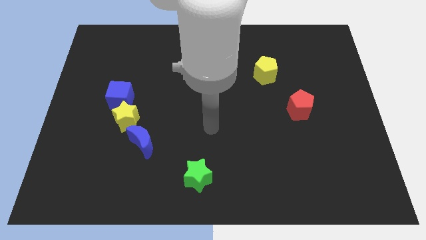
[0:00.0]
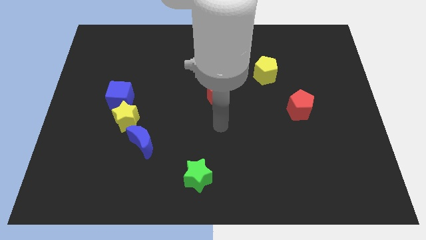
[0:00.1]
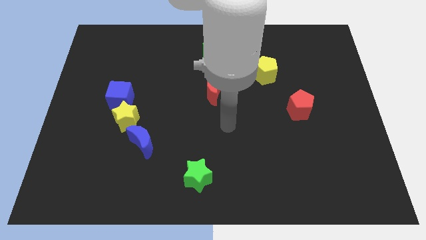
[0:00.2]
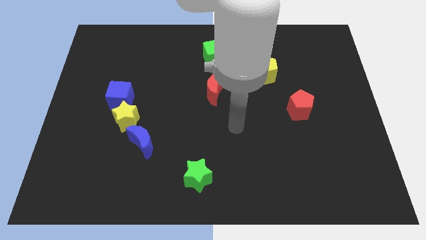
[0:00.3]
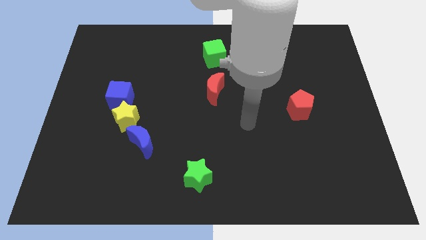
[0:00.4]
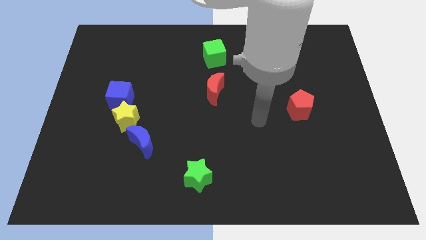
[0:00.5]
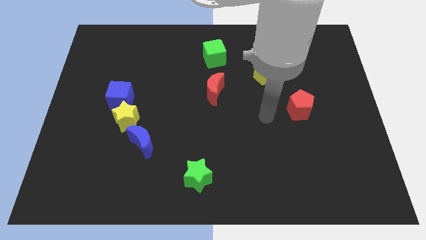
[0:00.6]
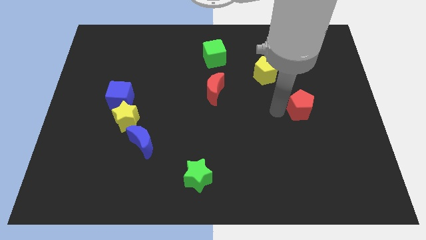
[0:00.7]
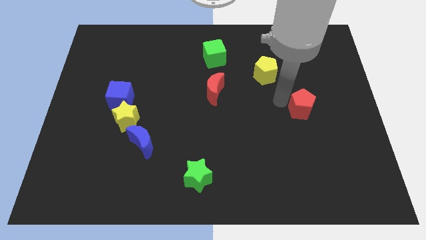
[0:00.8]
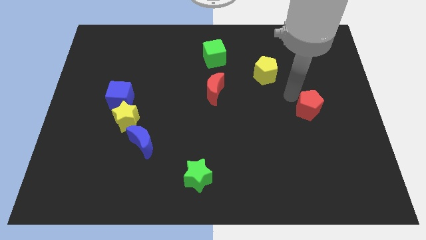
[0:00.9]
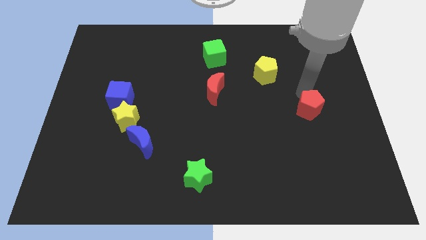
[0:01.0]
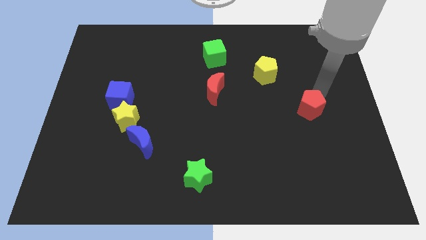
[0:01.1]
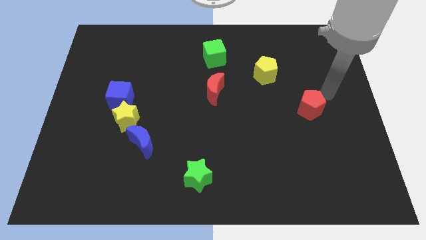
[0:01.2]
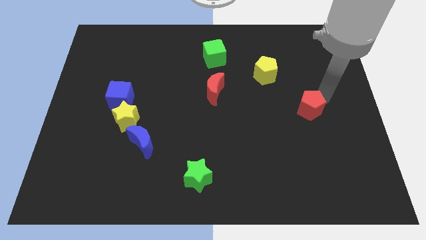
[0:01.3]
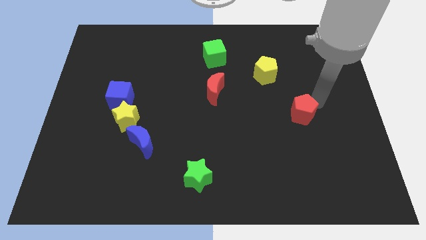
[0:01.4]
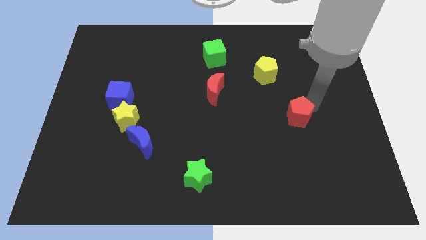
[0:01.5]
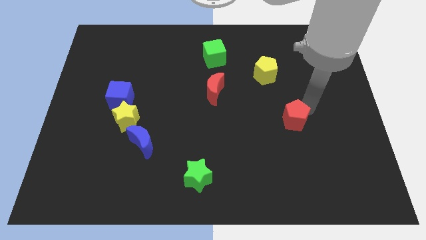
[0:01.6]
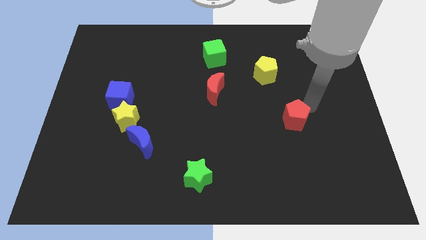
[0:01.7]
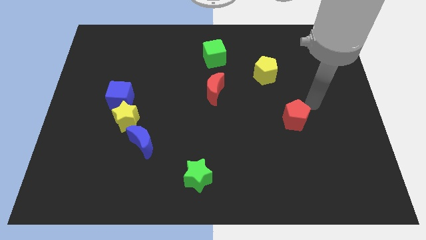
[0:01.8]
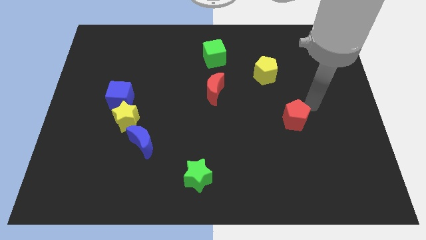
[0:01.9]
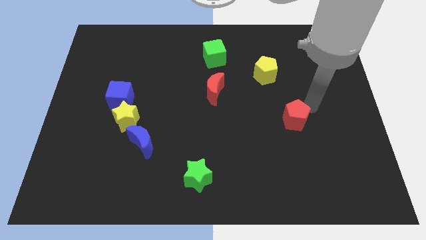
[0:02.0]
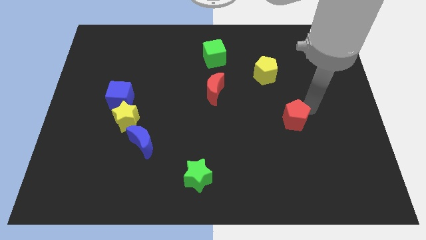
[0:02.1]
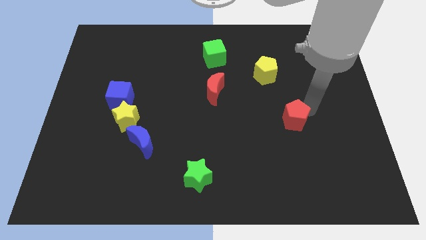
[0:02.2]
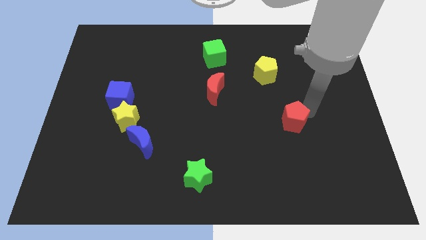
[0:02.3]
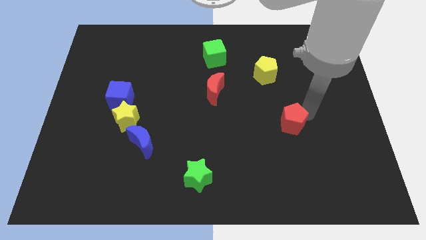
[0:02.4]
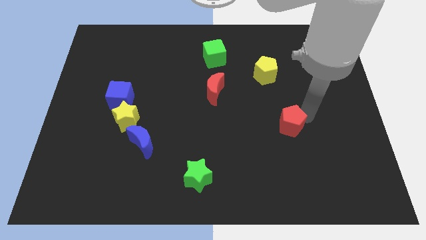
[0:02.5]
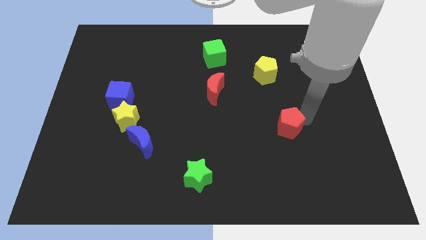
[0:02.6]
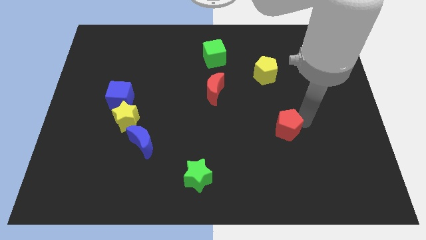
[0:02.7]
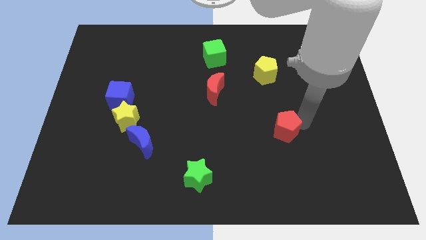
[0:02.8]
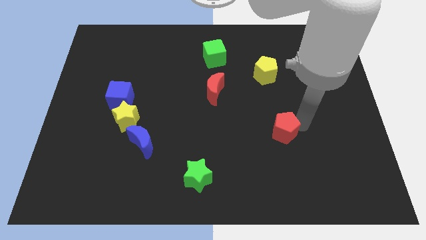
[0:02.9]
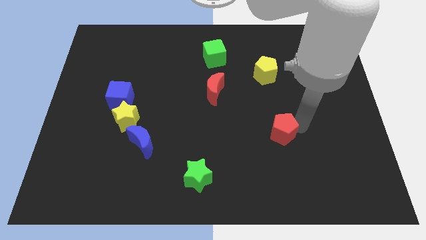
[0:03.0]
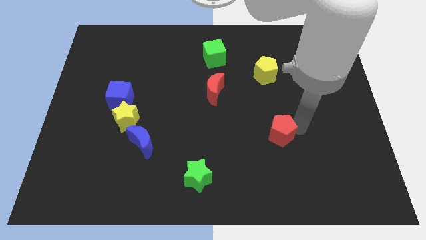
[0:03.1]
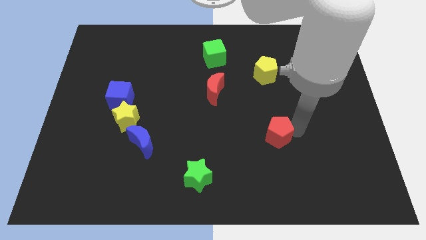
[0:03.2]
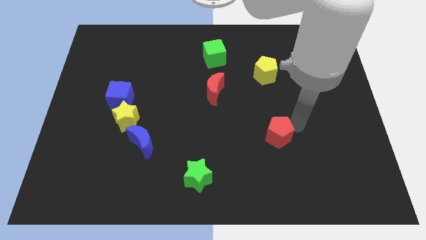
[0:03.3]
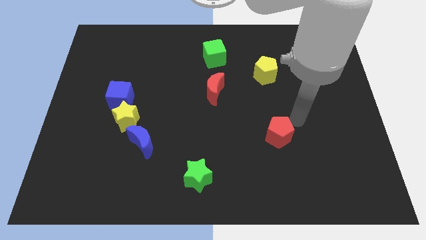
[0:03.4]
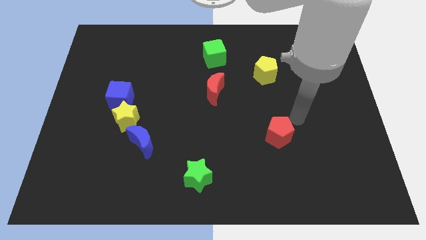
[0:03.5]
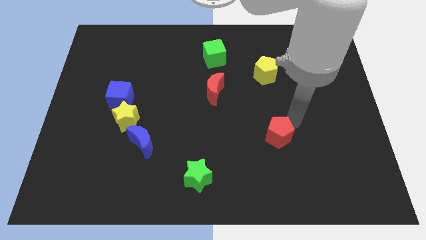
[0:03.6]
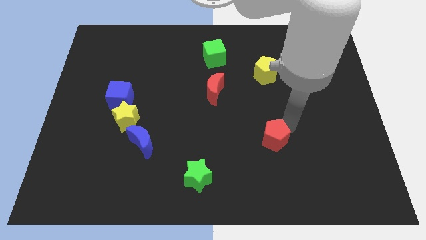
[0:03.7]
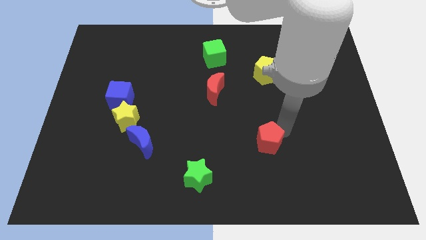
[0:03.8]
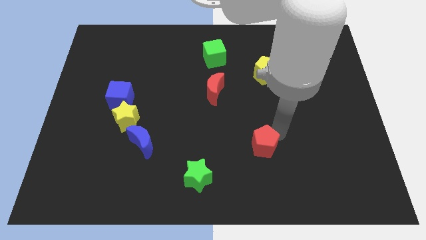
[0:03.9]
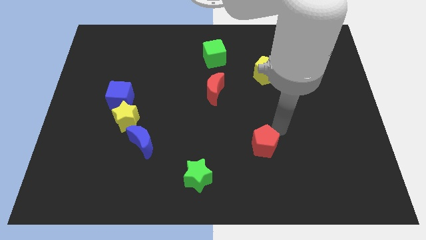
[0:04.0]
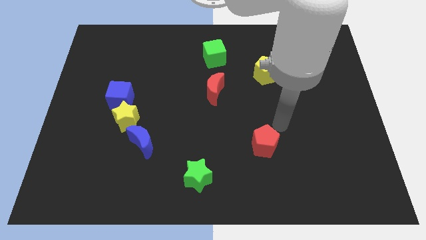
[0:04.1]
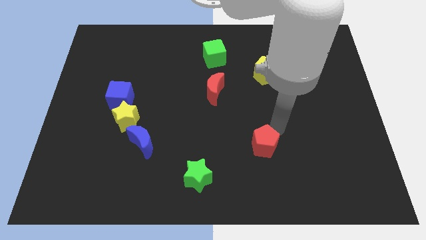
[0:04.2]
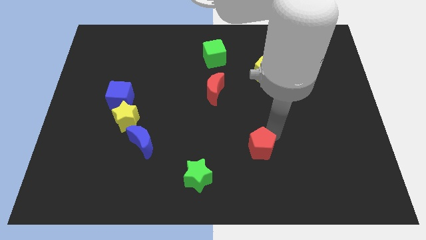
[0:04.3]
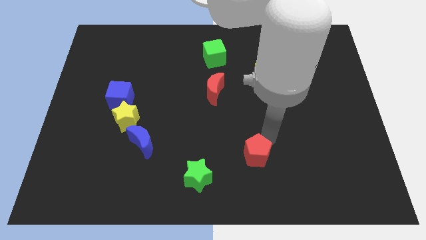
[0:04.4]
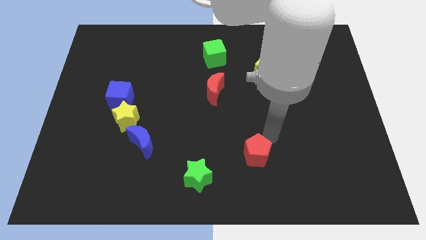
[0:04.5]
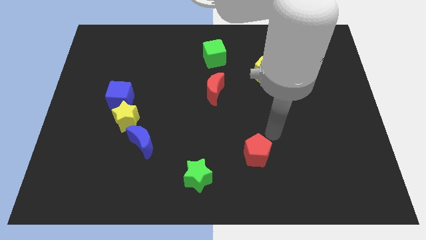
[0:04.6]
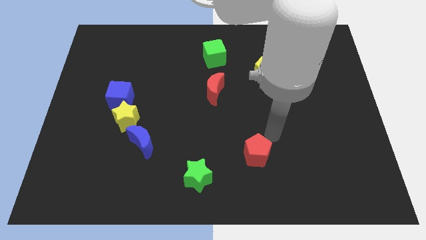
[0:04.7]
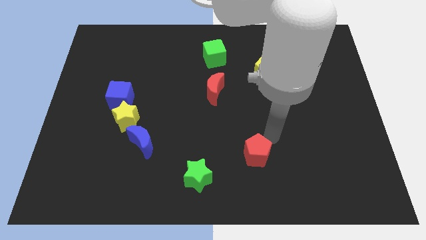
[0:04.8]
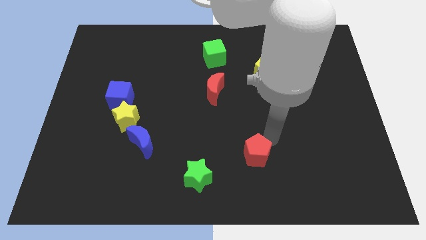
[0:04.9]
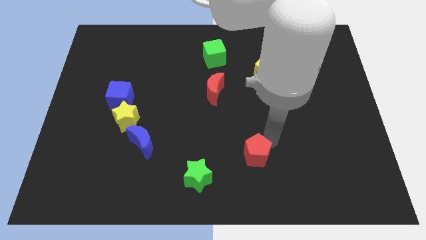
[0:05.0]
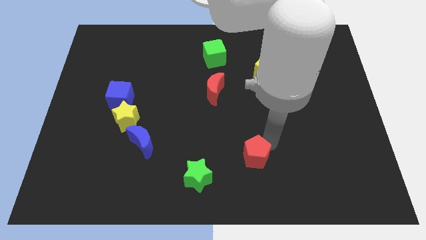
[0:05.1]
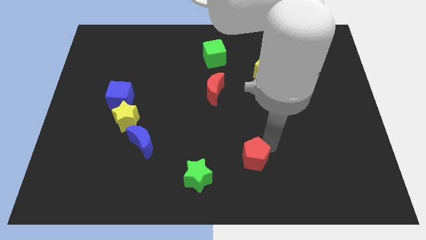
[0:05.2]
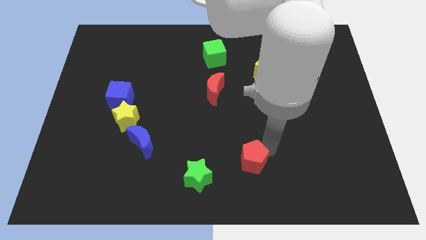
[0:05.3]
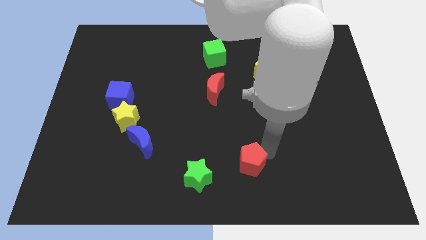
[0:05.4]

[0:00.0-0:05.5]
push the red pentagon to the bottom
